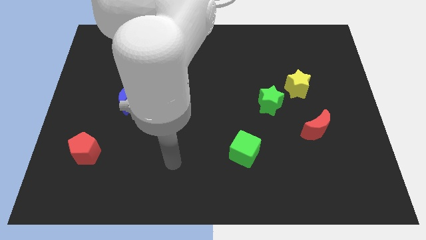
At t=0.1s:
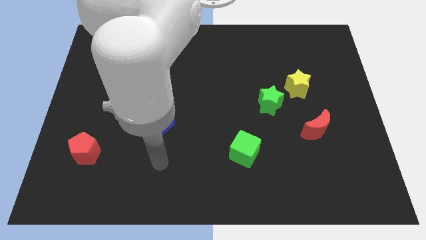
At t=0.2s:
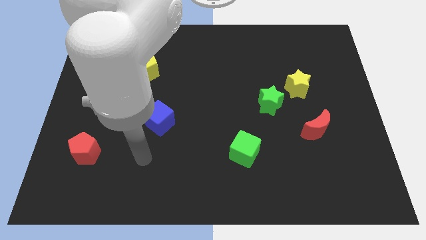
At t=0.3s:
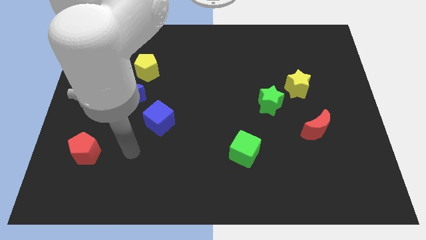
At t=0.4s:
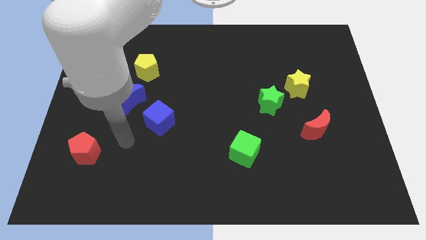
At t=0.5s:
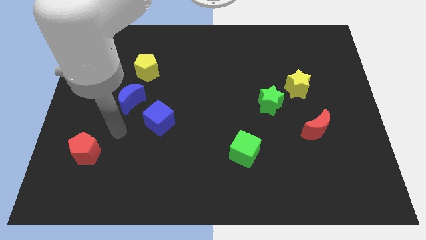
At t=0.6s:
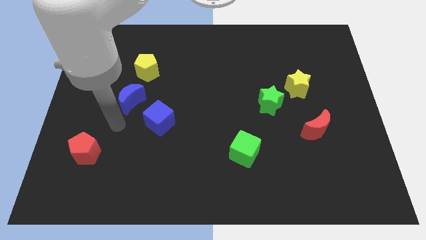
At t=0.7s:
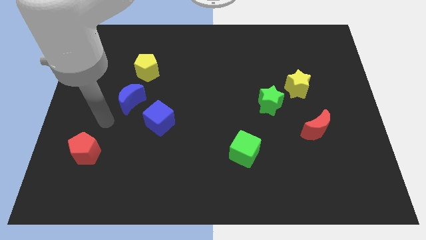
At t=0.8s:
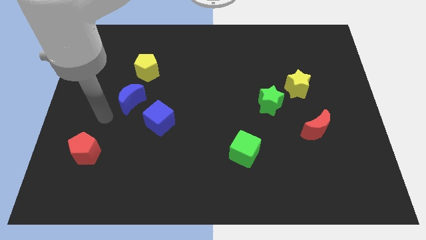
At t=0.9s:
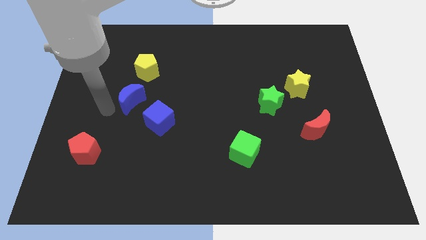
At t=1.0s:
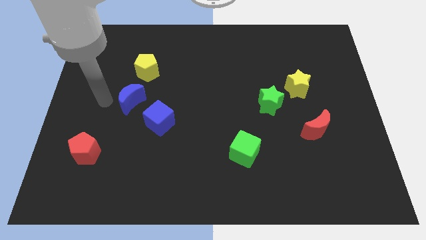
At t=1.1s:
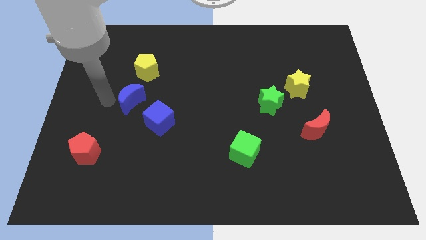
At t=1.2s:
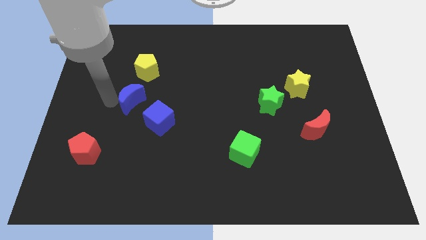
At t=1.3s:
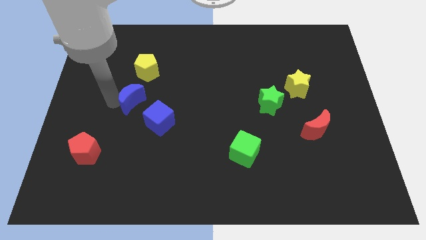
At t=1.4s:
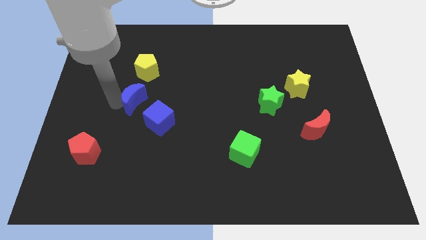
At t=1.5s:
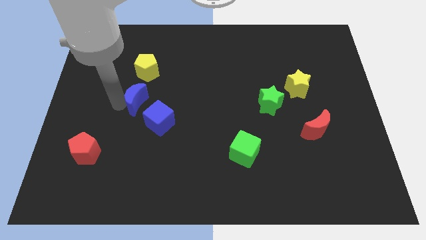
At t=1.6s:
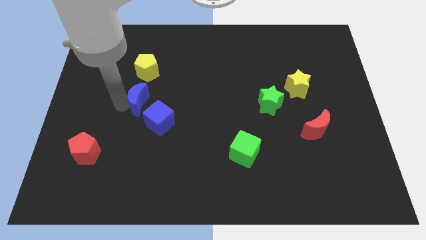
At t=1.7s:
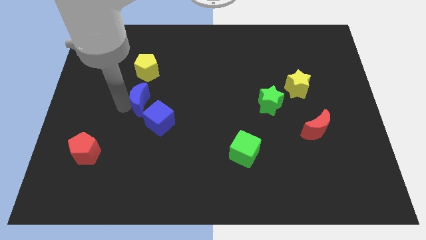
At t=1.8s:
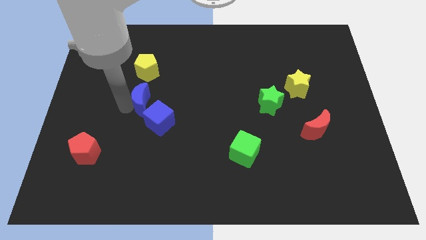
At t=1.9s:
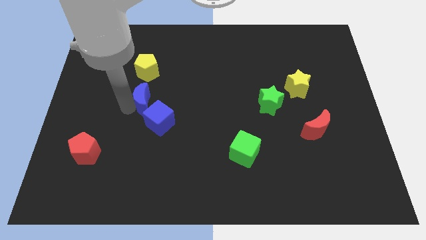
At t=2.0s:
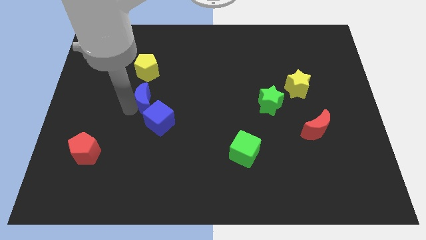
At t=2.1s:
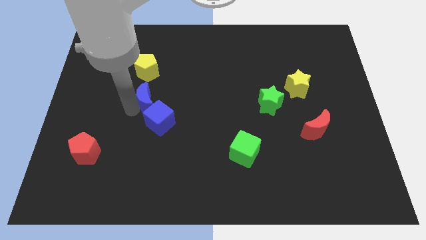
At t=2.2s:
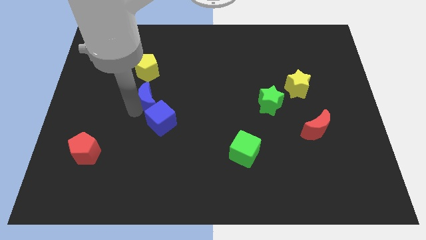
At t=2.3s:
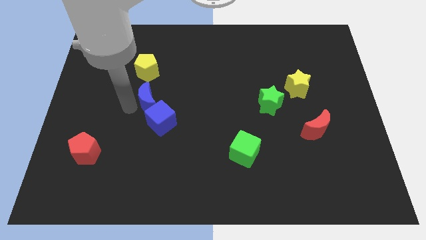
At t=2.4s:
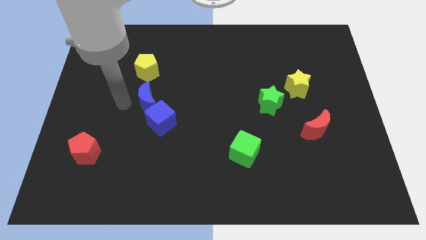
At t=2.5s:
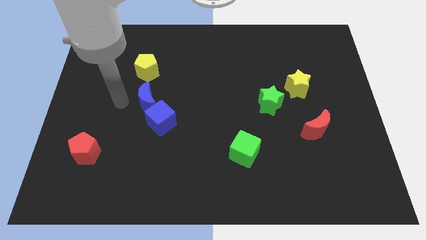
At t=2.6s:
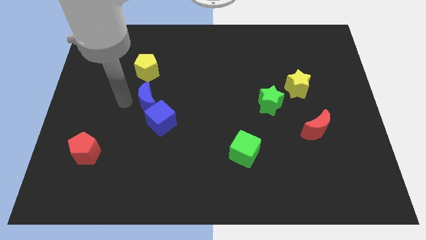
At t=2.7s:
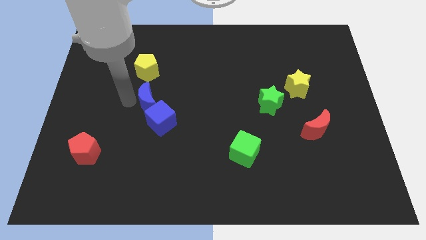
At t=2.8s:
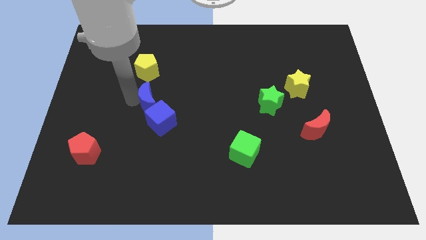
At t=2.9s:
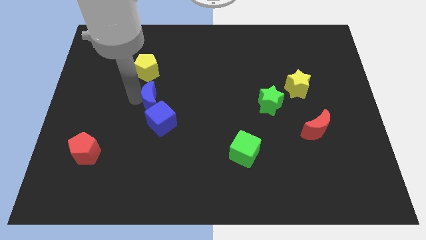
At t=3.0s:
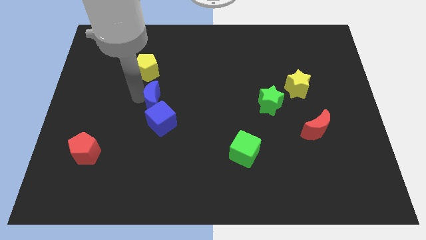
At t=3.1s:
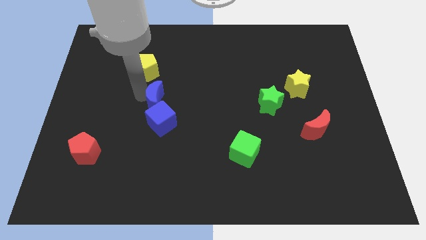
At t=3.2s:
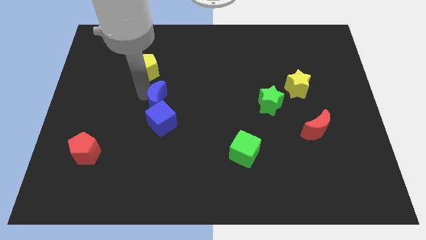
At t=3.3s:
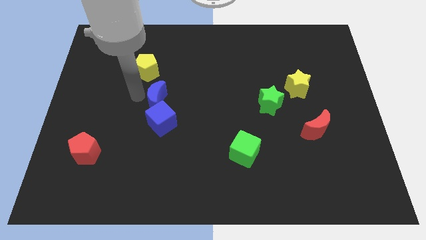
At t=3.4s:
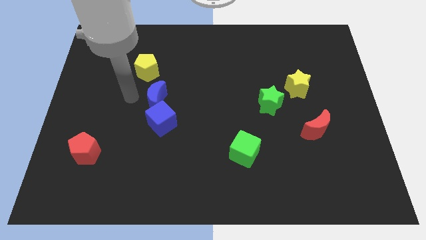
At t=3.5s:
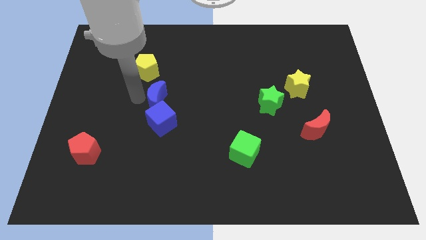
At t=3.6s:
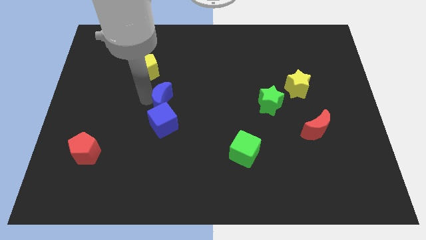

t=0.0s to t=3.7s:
slightly move the blue moon to the right

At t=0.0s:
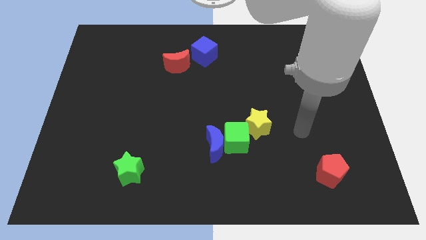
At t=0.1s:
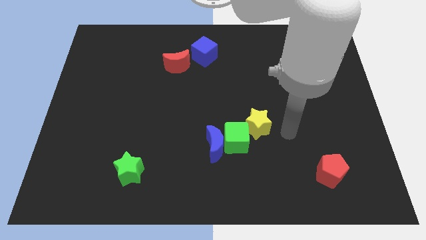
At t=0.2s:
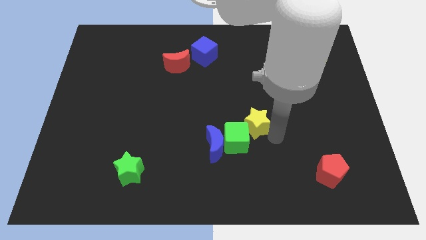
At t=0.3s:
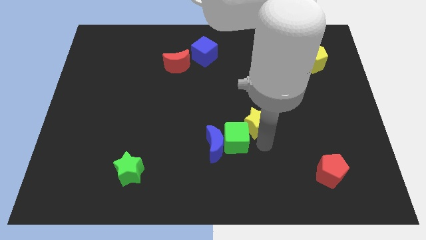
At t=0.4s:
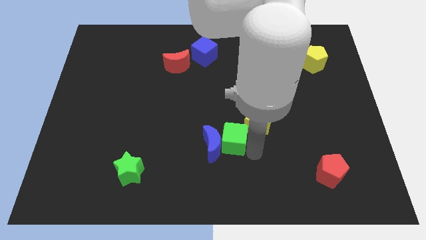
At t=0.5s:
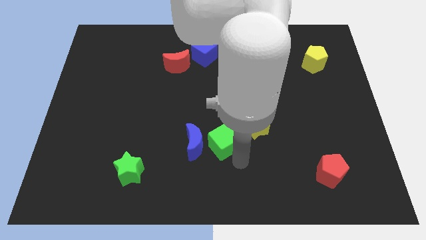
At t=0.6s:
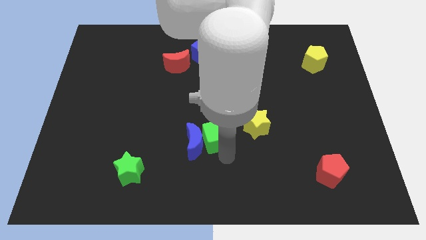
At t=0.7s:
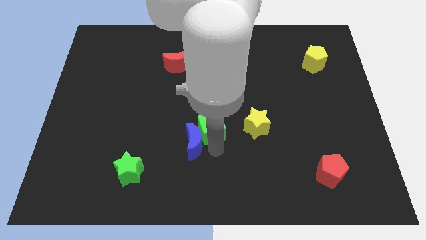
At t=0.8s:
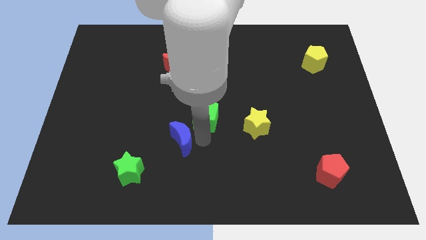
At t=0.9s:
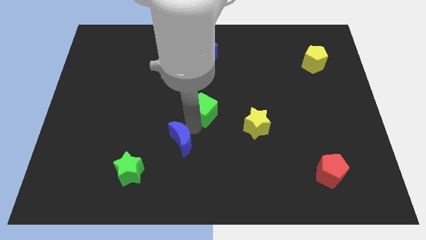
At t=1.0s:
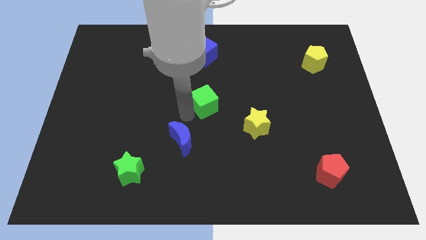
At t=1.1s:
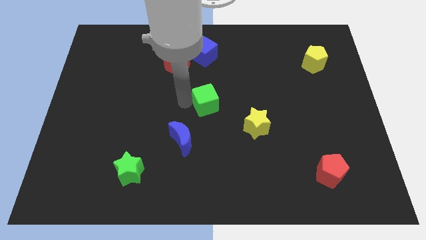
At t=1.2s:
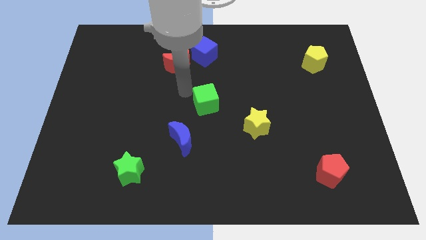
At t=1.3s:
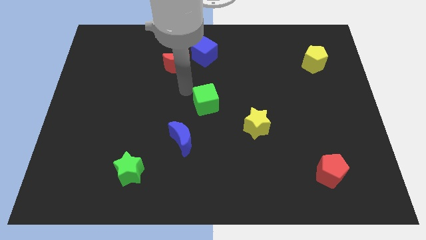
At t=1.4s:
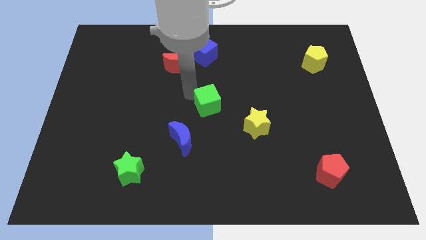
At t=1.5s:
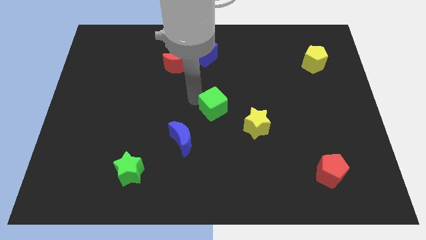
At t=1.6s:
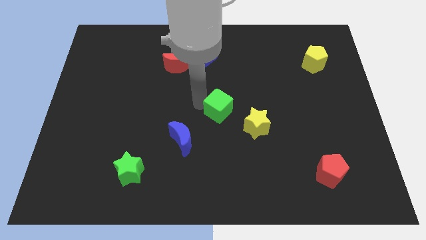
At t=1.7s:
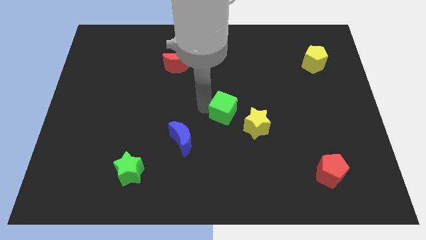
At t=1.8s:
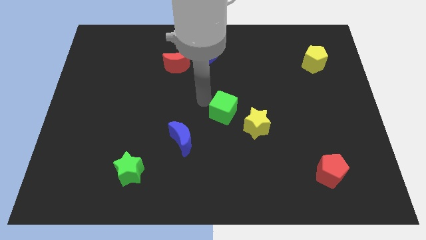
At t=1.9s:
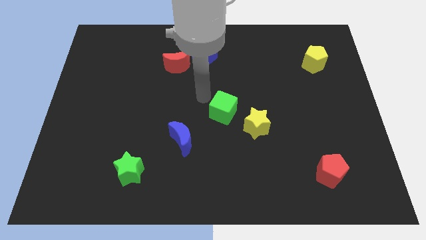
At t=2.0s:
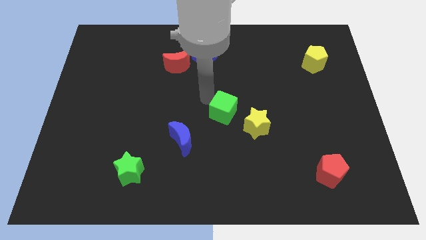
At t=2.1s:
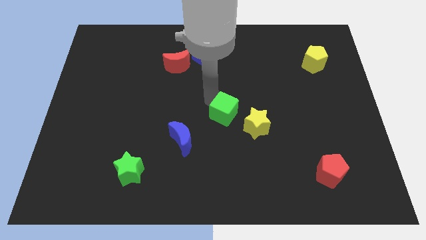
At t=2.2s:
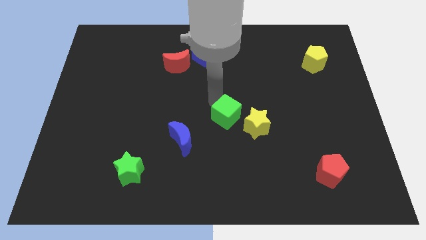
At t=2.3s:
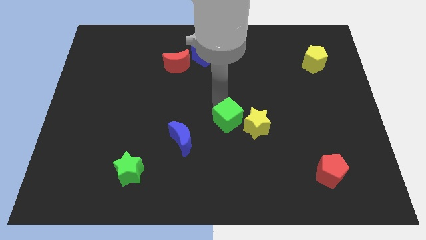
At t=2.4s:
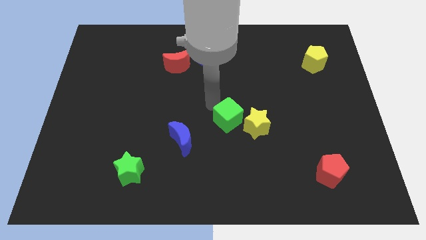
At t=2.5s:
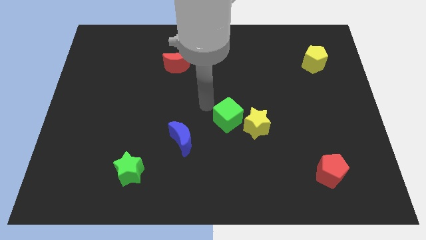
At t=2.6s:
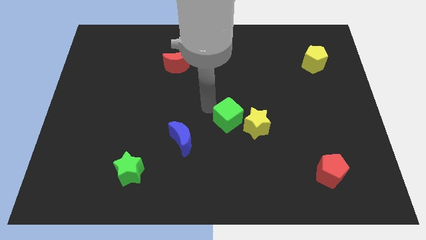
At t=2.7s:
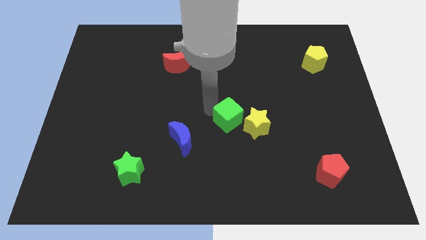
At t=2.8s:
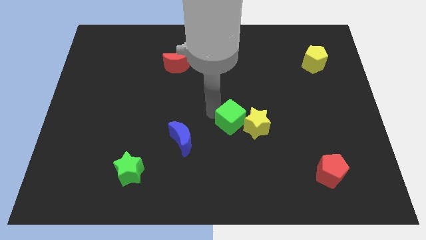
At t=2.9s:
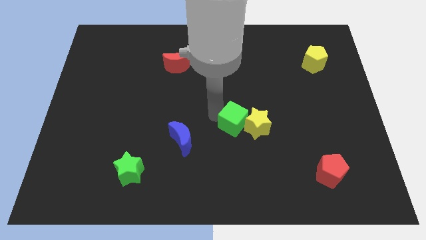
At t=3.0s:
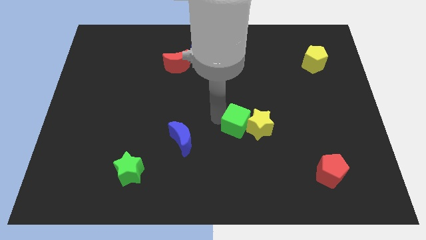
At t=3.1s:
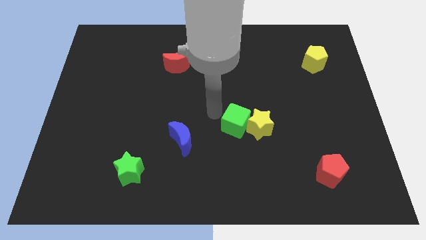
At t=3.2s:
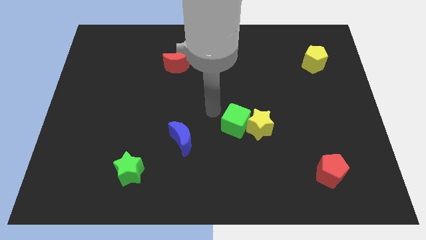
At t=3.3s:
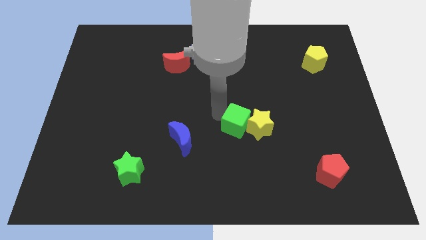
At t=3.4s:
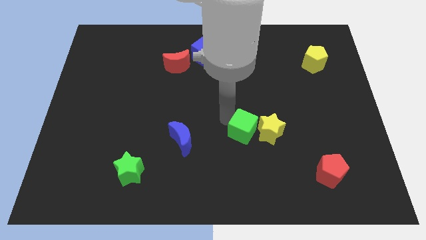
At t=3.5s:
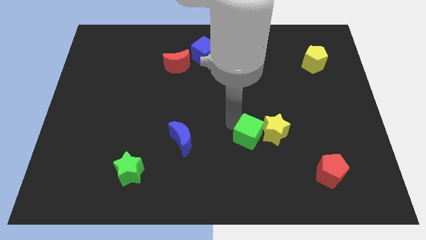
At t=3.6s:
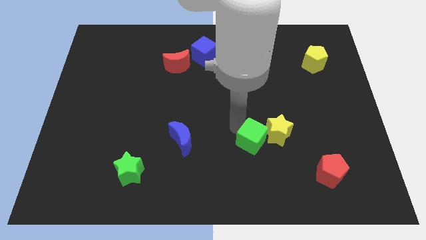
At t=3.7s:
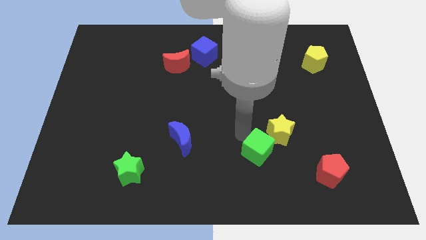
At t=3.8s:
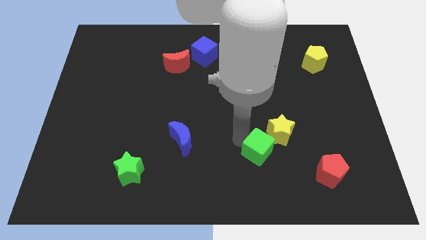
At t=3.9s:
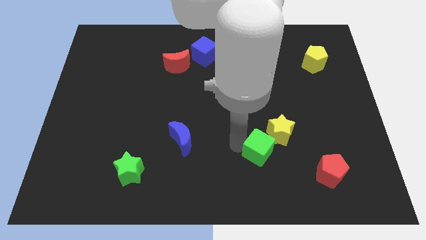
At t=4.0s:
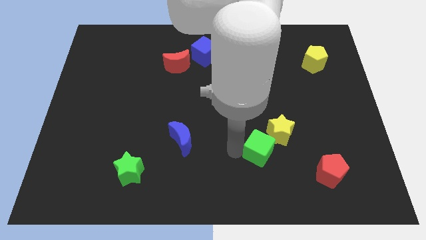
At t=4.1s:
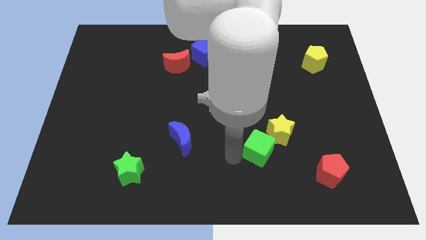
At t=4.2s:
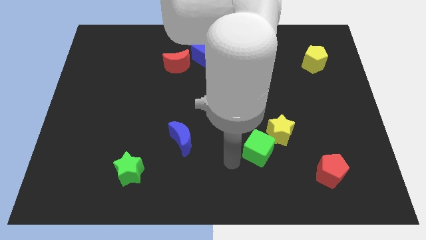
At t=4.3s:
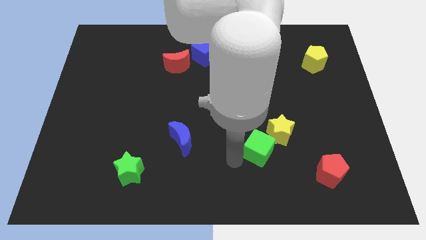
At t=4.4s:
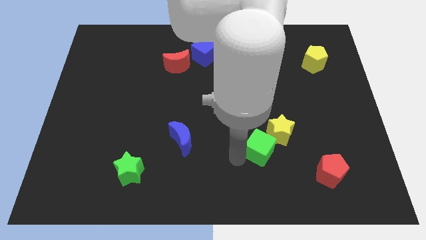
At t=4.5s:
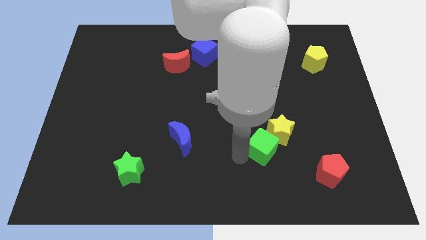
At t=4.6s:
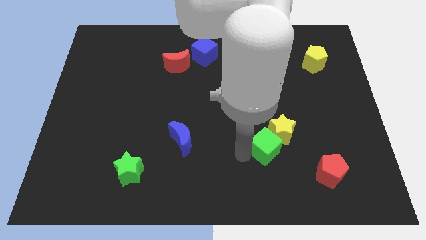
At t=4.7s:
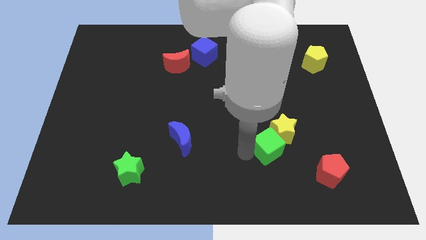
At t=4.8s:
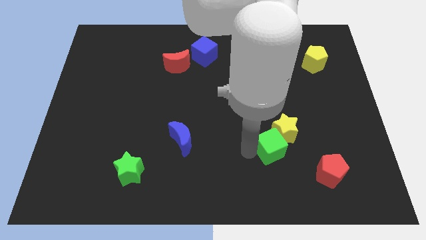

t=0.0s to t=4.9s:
slightly push the green cube right
